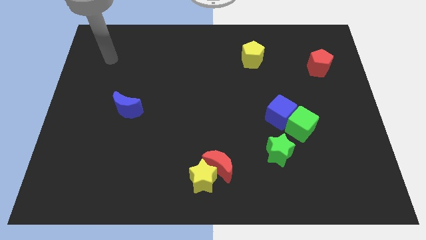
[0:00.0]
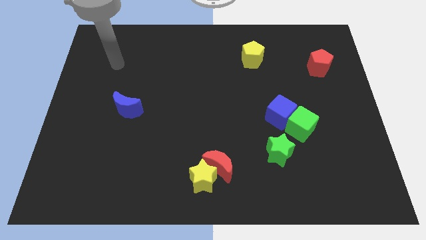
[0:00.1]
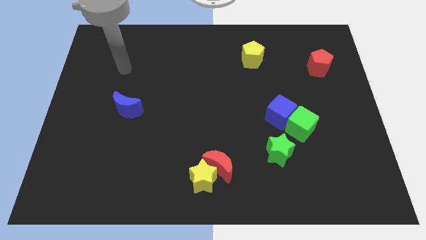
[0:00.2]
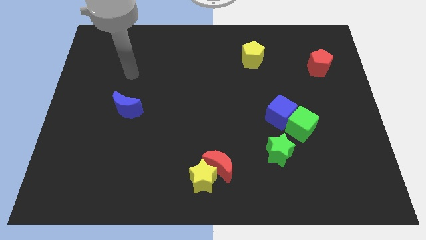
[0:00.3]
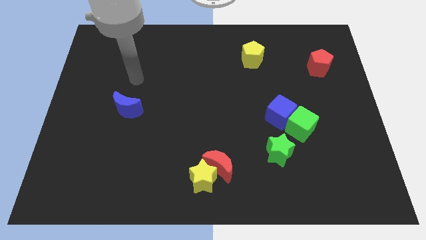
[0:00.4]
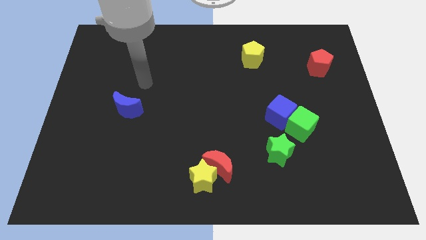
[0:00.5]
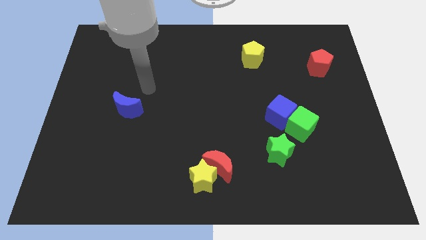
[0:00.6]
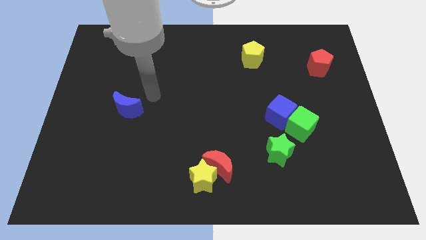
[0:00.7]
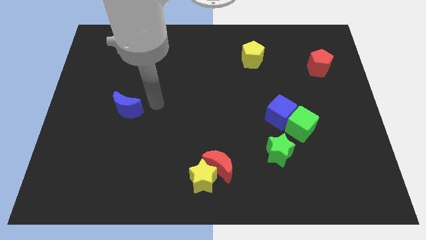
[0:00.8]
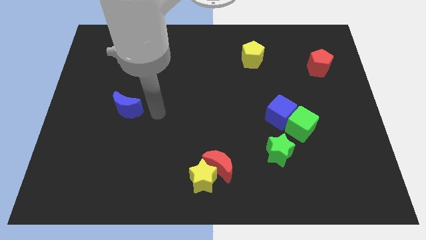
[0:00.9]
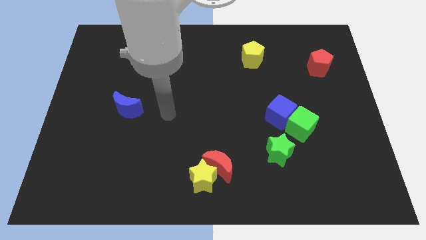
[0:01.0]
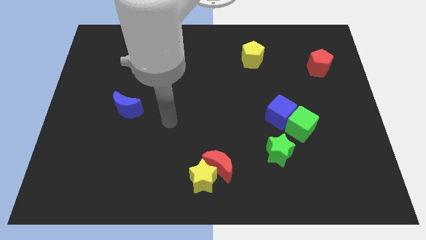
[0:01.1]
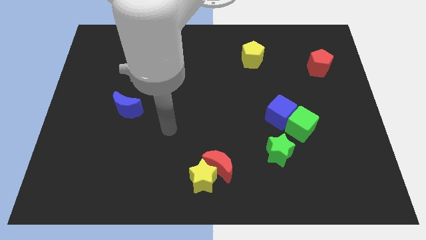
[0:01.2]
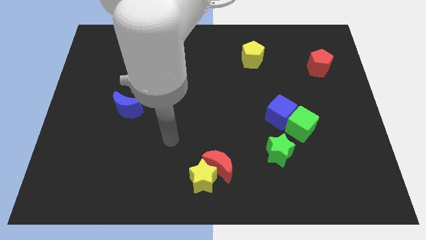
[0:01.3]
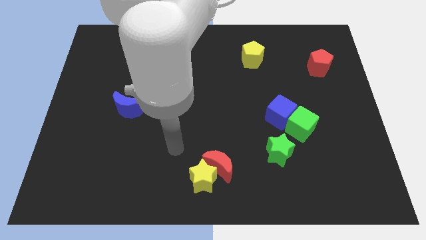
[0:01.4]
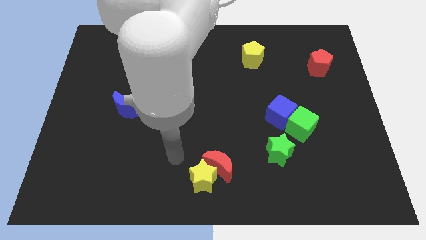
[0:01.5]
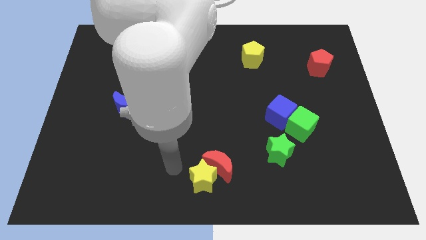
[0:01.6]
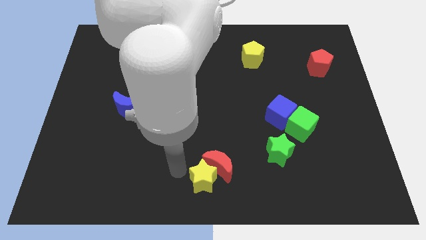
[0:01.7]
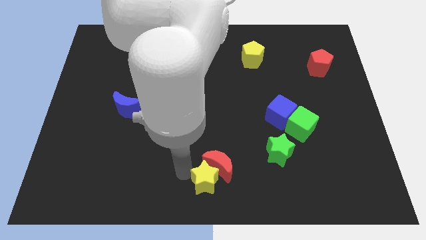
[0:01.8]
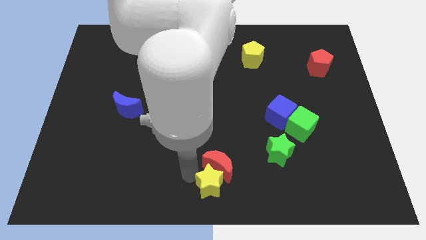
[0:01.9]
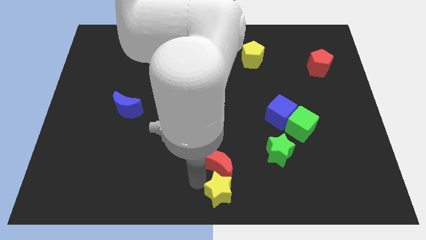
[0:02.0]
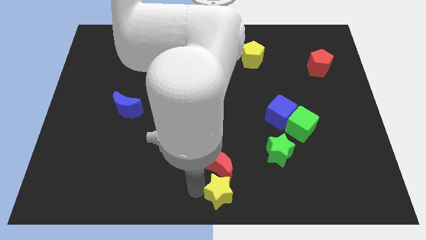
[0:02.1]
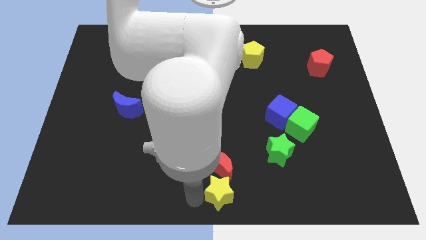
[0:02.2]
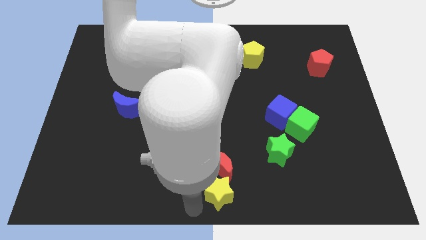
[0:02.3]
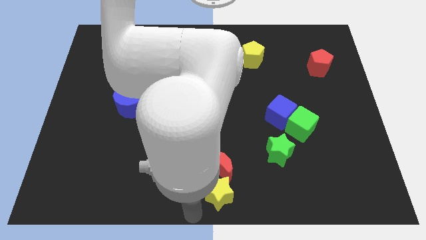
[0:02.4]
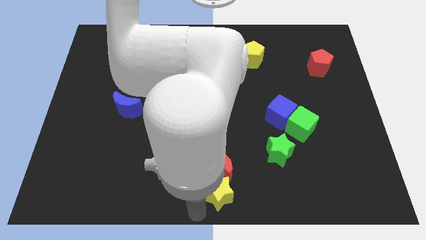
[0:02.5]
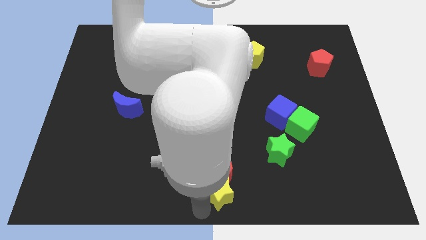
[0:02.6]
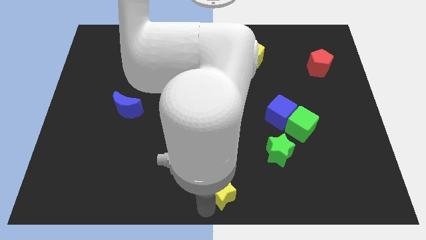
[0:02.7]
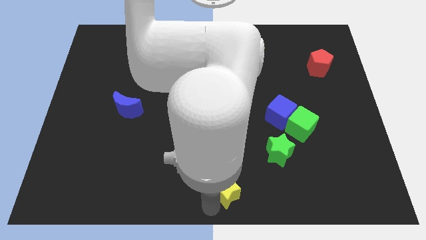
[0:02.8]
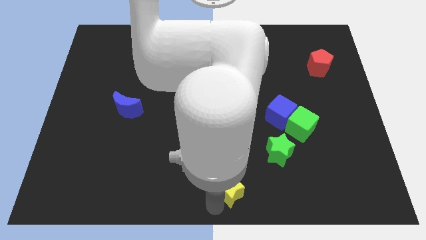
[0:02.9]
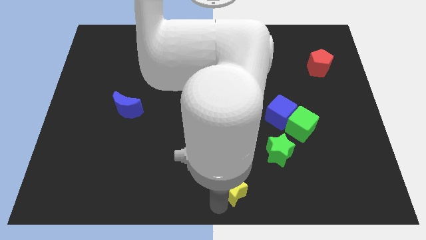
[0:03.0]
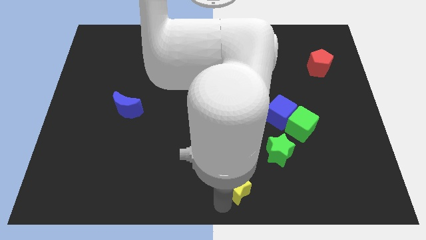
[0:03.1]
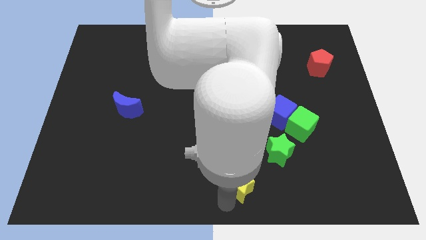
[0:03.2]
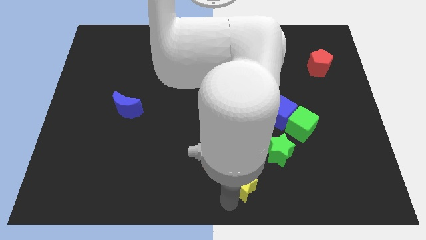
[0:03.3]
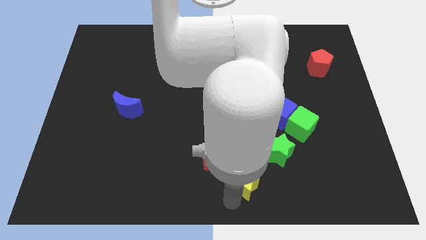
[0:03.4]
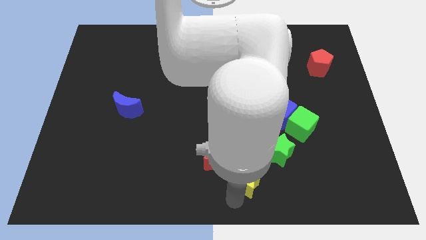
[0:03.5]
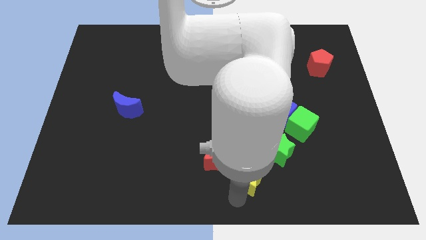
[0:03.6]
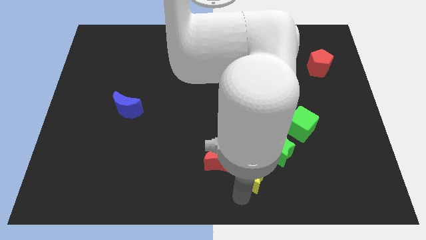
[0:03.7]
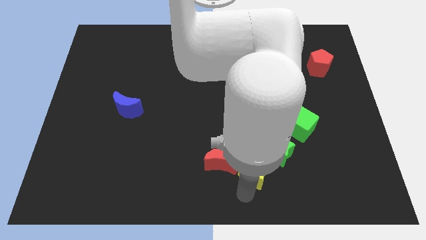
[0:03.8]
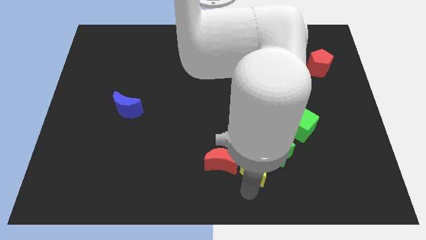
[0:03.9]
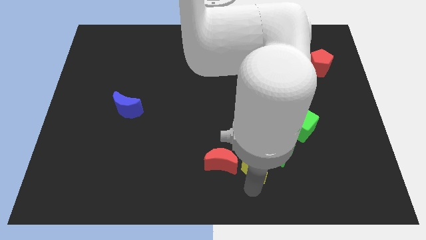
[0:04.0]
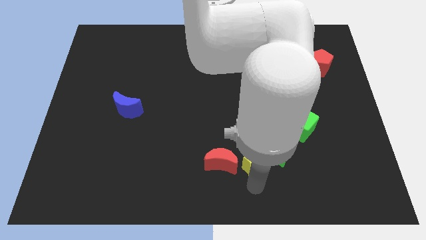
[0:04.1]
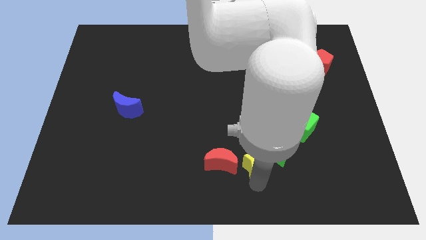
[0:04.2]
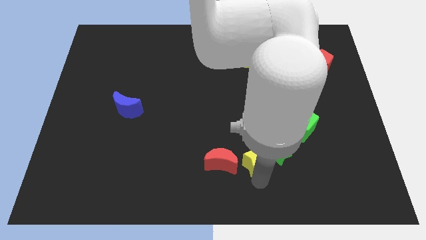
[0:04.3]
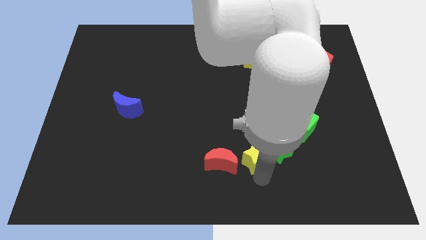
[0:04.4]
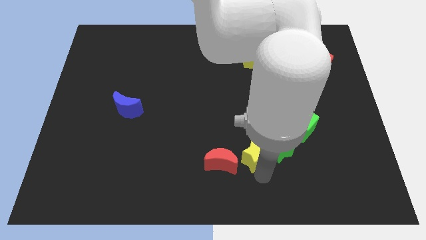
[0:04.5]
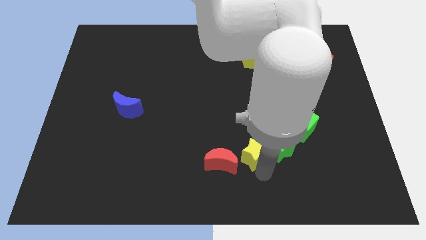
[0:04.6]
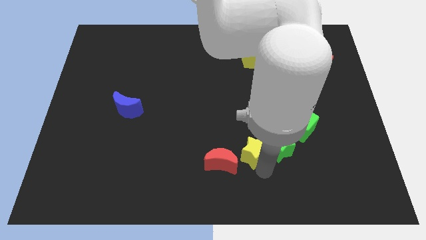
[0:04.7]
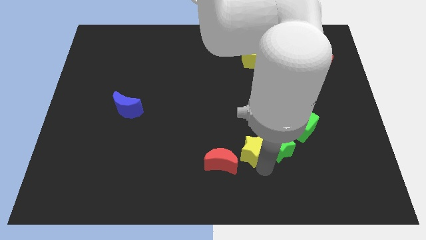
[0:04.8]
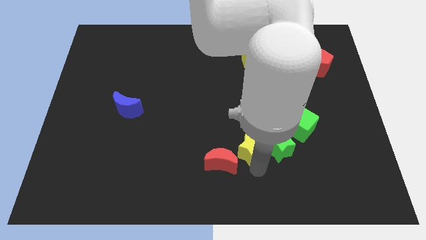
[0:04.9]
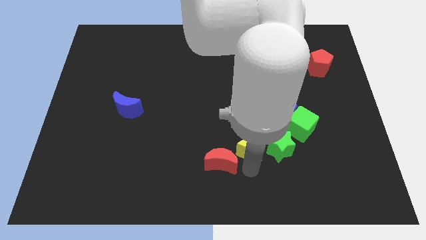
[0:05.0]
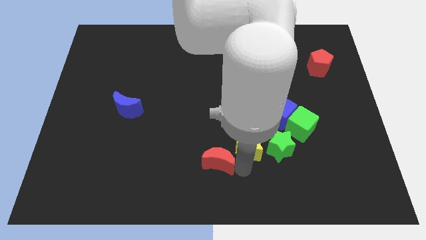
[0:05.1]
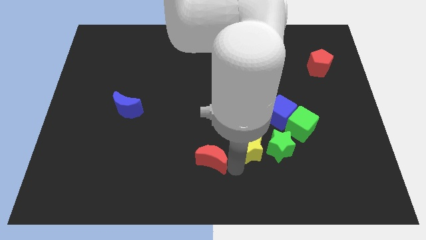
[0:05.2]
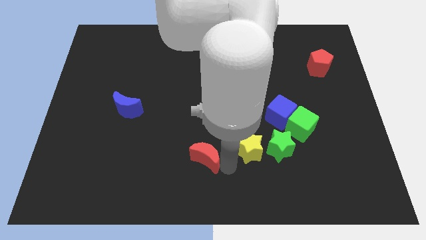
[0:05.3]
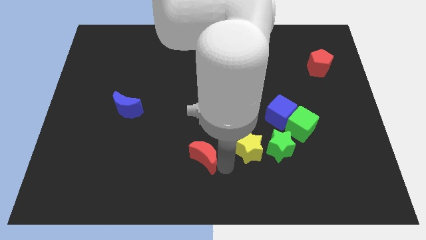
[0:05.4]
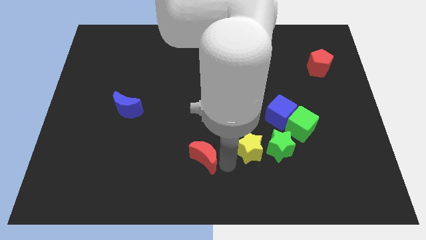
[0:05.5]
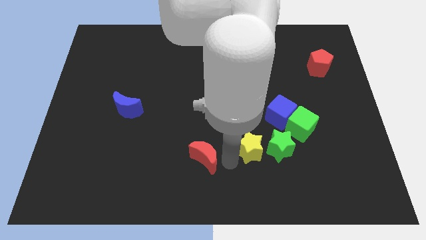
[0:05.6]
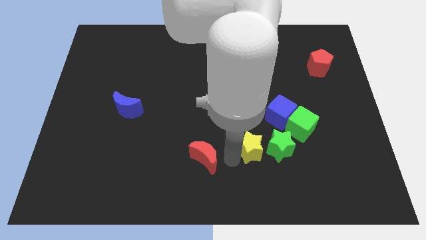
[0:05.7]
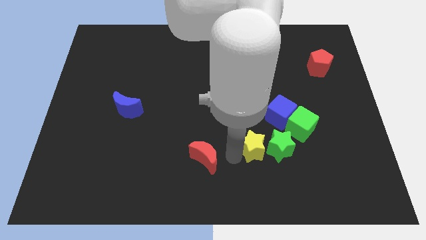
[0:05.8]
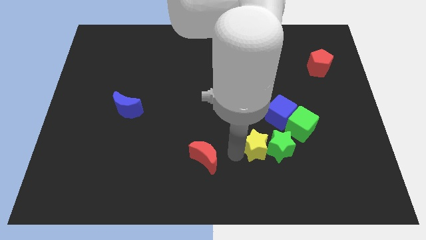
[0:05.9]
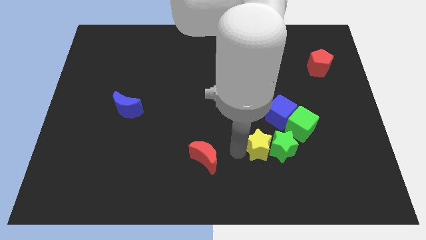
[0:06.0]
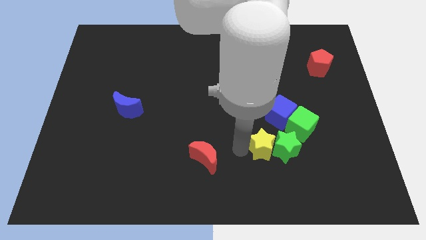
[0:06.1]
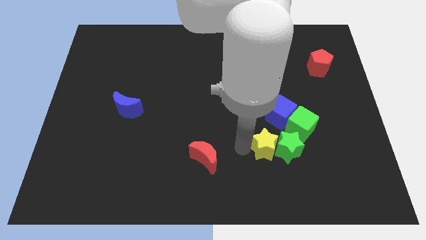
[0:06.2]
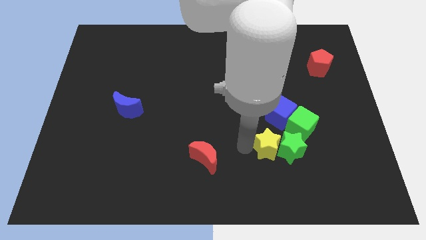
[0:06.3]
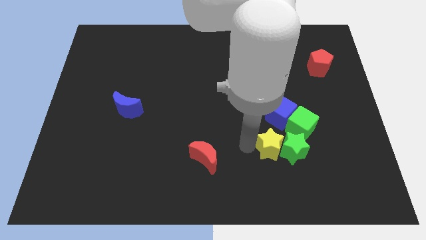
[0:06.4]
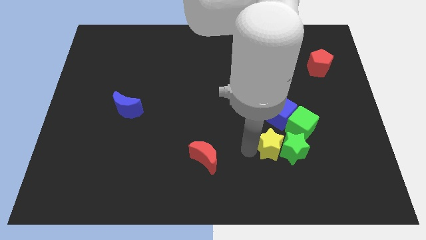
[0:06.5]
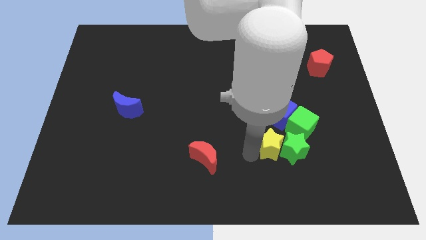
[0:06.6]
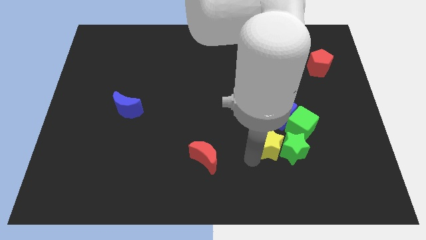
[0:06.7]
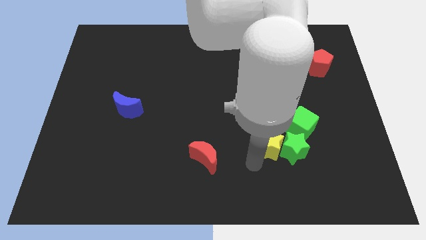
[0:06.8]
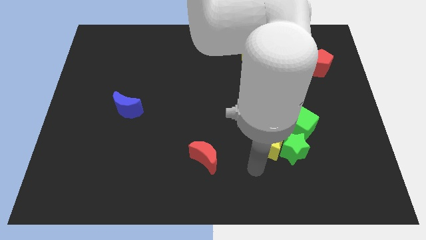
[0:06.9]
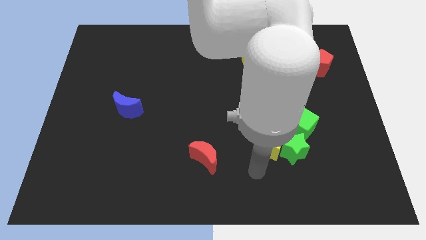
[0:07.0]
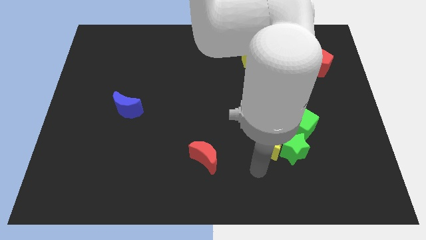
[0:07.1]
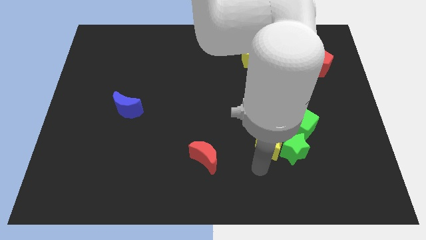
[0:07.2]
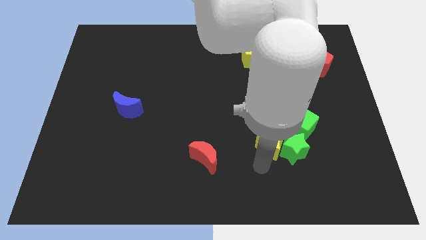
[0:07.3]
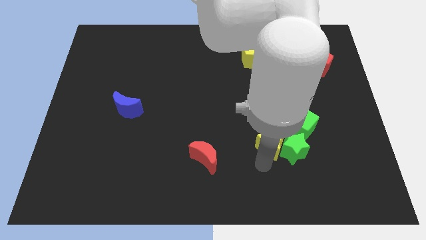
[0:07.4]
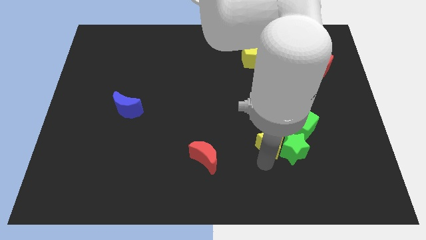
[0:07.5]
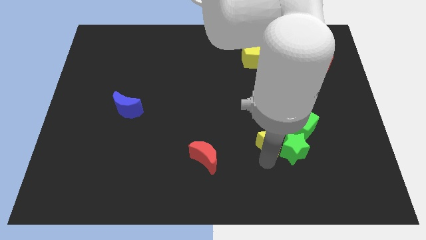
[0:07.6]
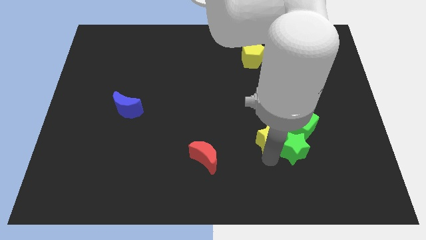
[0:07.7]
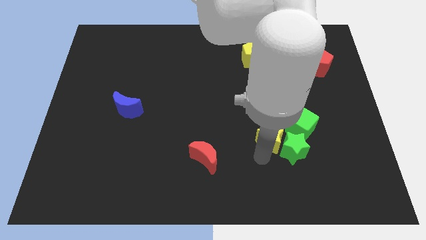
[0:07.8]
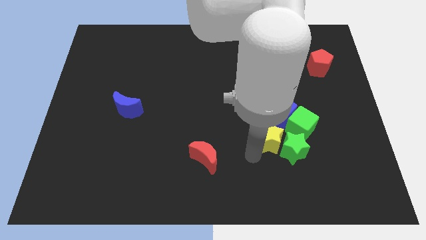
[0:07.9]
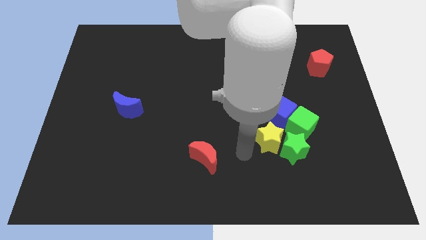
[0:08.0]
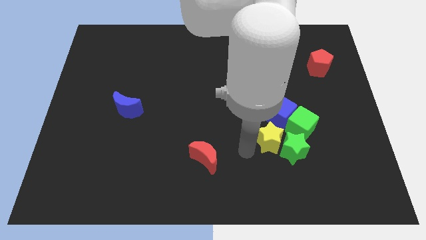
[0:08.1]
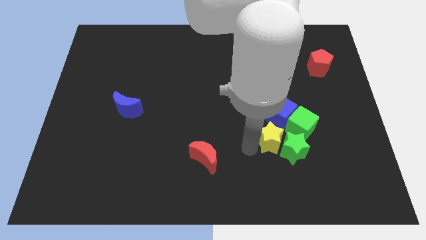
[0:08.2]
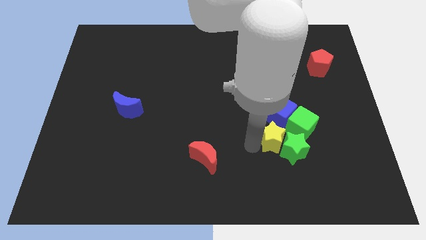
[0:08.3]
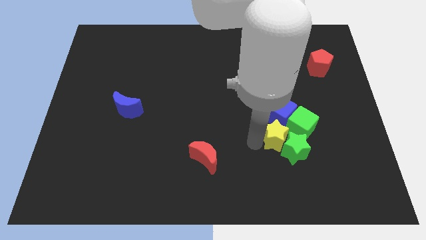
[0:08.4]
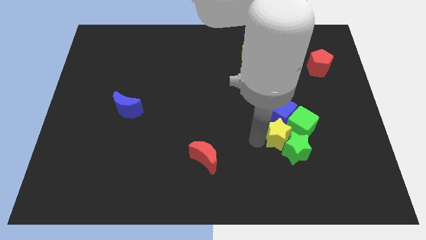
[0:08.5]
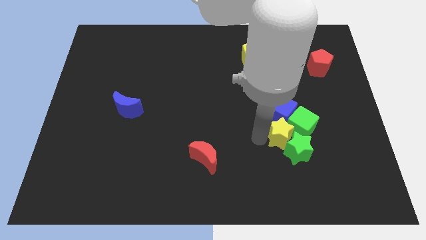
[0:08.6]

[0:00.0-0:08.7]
slide the yellow star close to the green cube
